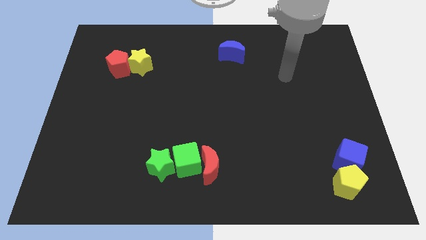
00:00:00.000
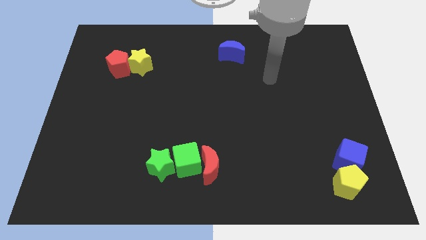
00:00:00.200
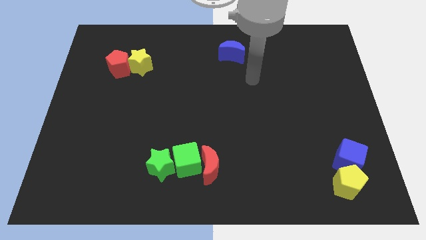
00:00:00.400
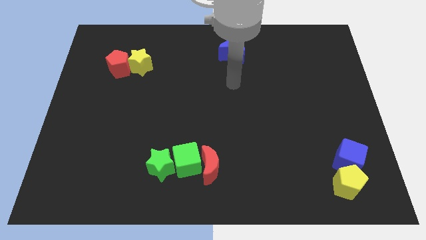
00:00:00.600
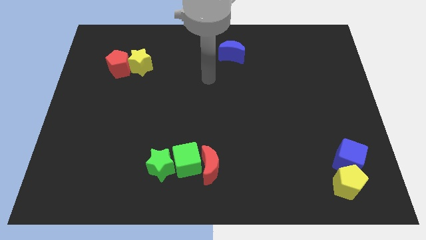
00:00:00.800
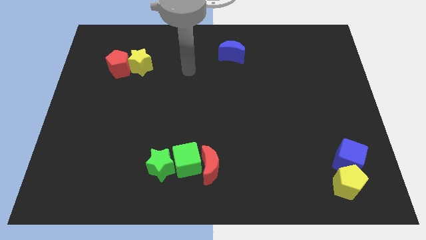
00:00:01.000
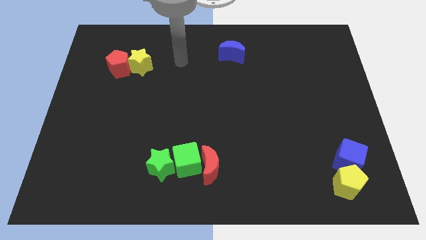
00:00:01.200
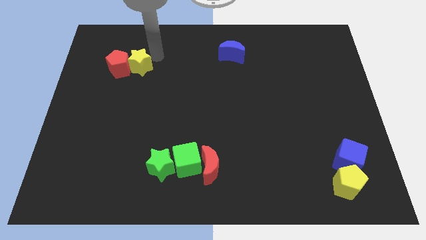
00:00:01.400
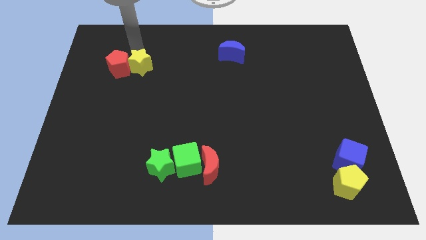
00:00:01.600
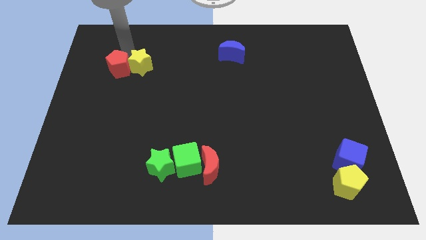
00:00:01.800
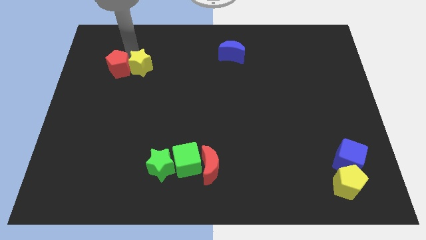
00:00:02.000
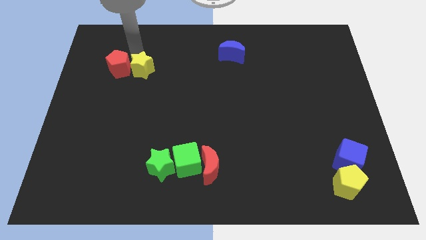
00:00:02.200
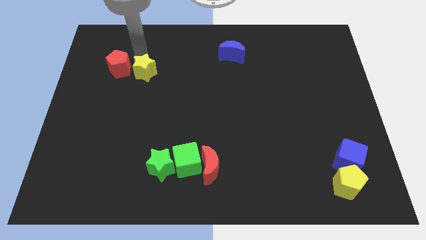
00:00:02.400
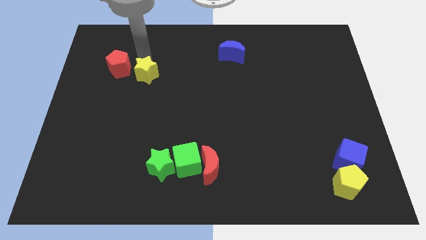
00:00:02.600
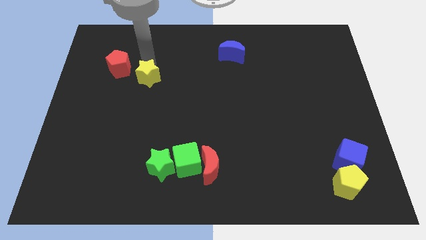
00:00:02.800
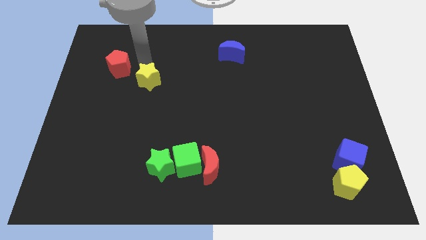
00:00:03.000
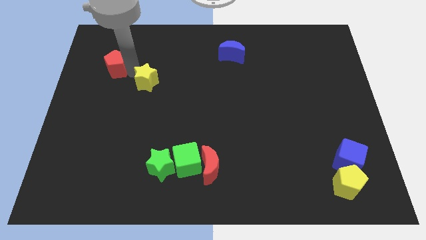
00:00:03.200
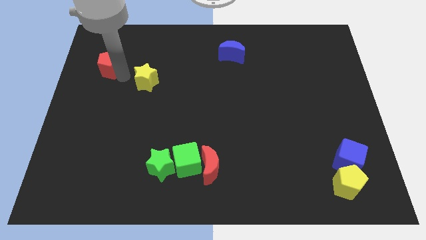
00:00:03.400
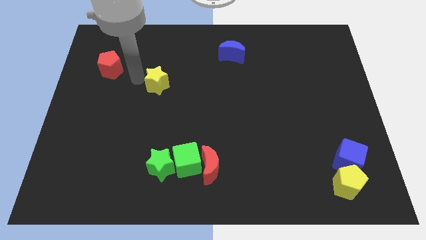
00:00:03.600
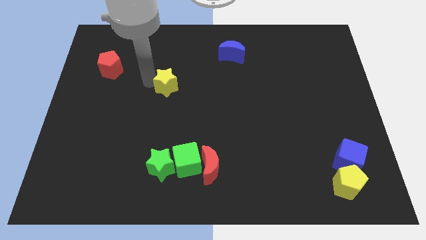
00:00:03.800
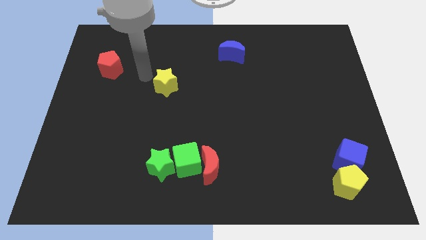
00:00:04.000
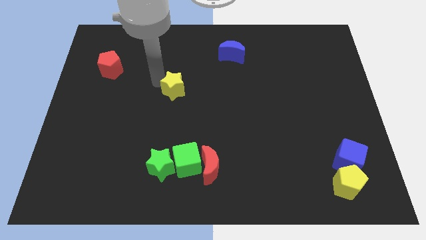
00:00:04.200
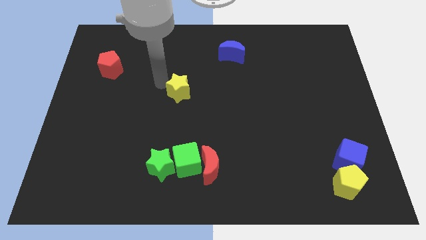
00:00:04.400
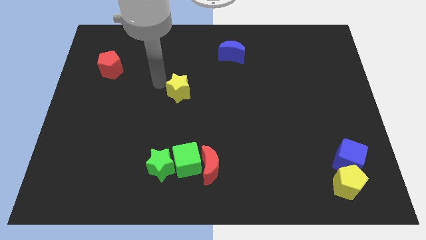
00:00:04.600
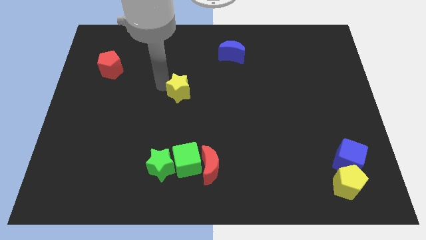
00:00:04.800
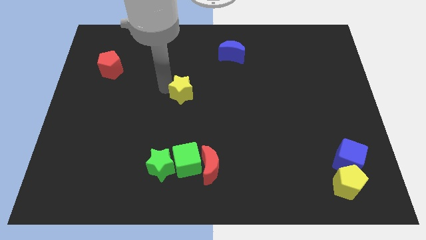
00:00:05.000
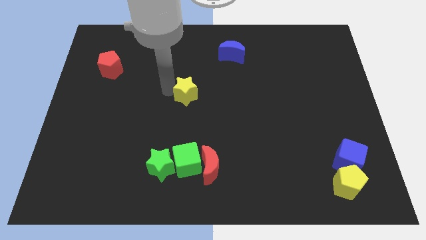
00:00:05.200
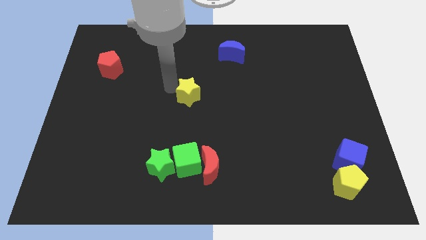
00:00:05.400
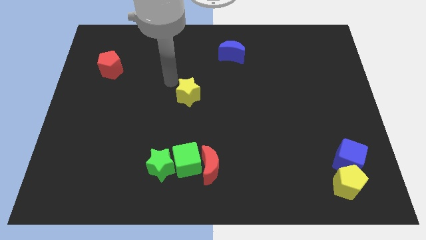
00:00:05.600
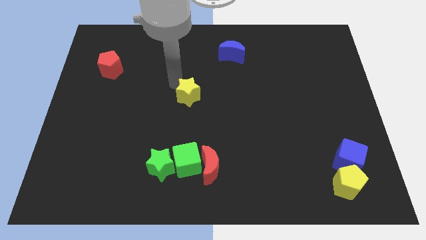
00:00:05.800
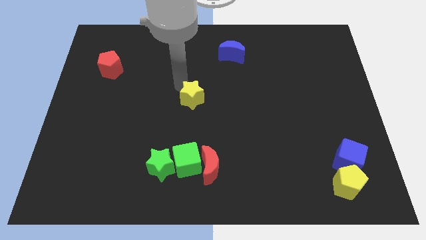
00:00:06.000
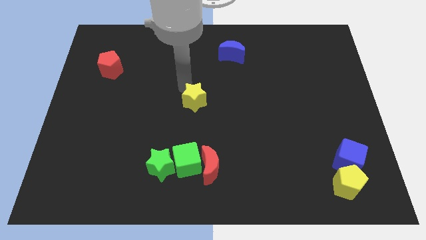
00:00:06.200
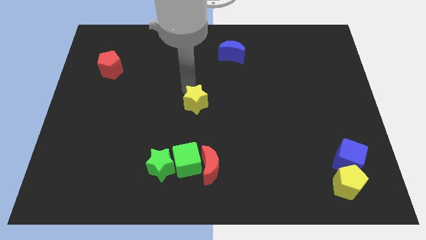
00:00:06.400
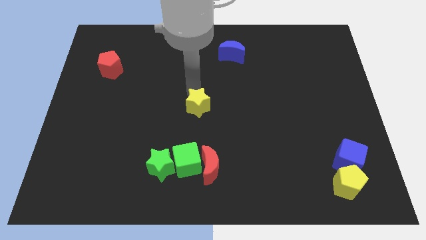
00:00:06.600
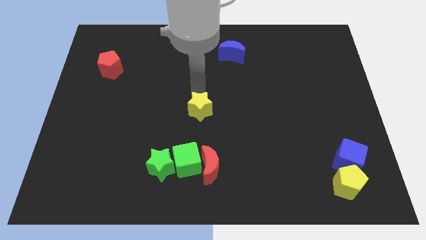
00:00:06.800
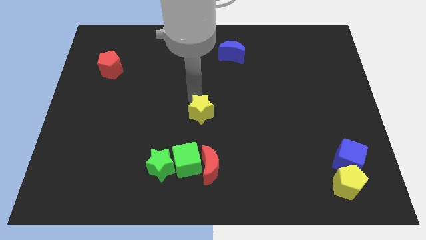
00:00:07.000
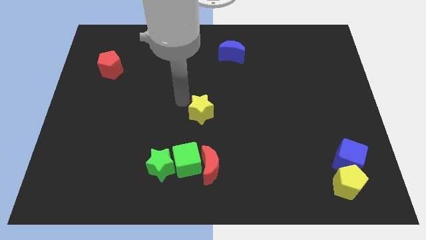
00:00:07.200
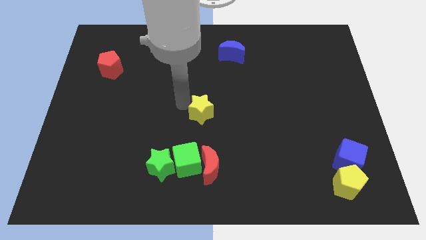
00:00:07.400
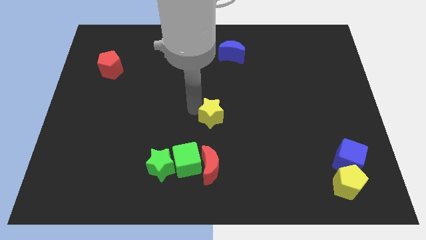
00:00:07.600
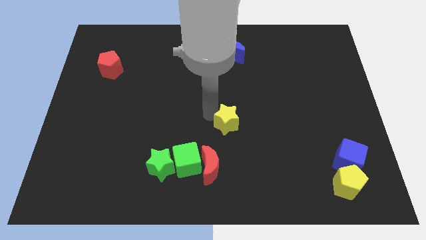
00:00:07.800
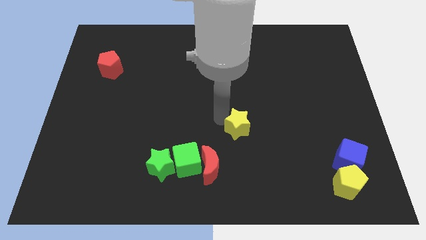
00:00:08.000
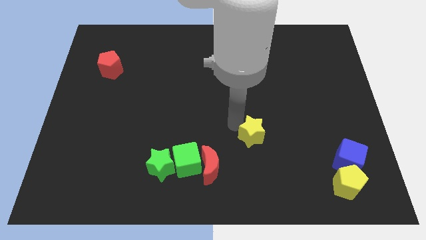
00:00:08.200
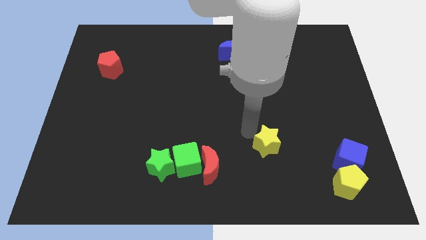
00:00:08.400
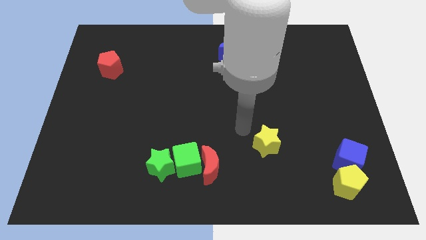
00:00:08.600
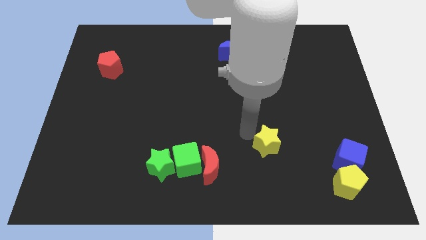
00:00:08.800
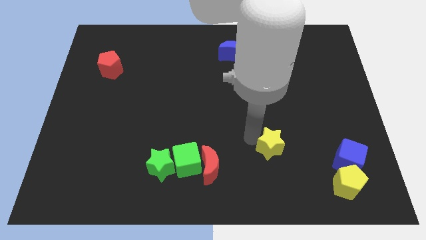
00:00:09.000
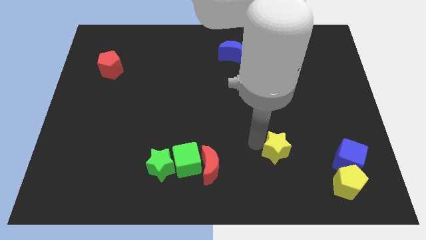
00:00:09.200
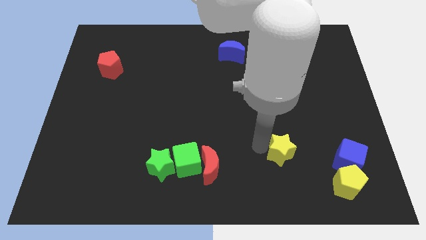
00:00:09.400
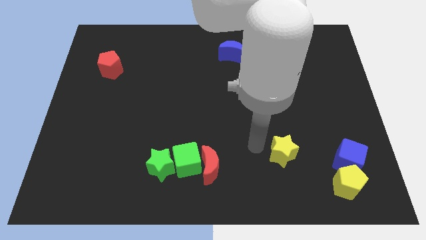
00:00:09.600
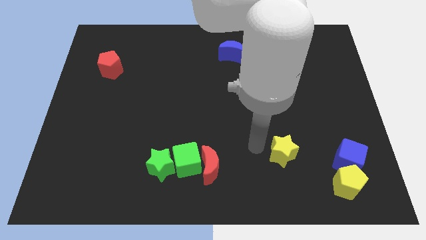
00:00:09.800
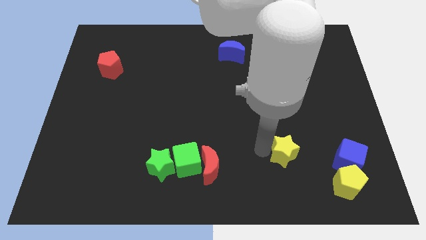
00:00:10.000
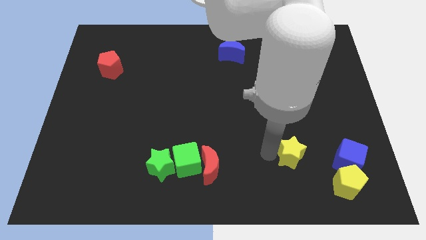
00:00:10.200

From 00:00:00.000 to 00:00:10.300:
push the yellow star diagonally up and to the left of the yellow pentagon

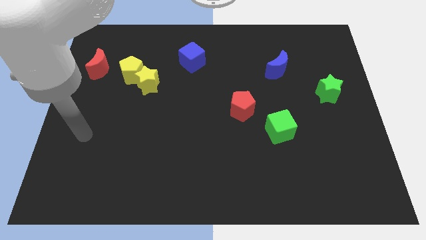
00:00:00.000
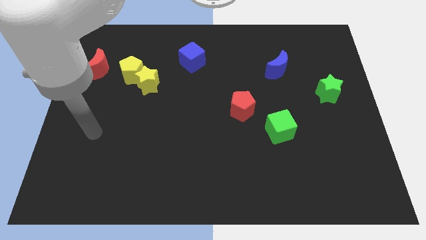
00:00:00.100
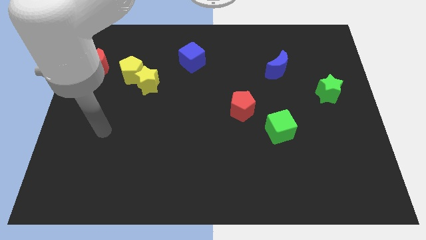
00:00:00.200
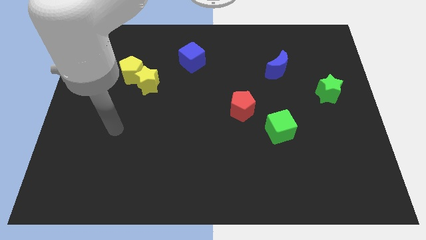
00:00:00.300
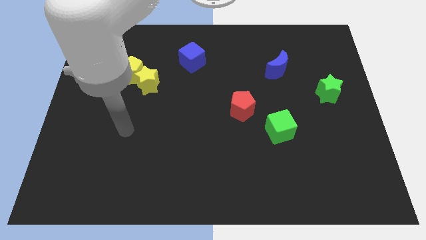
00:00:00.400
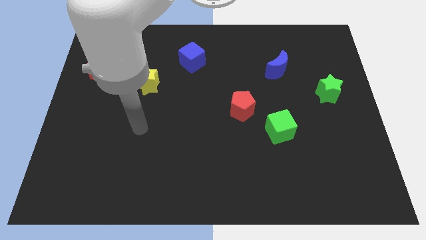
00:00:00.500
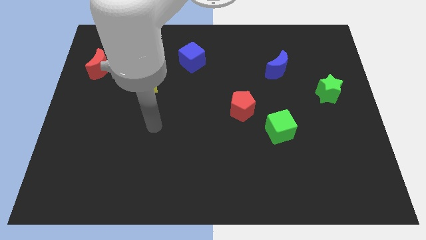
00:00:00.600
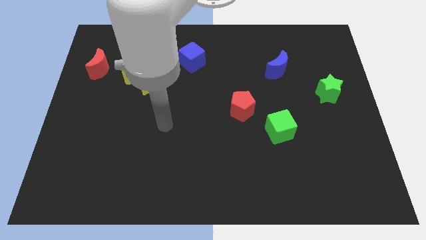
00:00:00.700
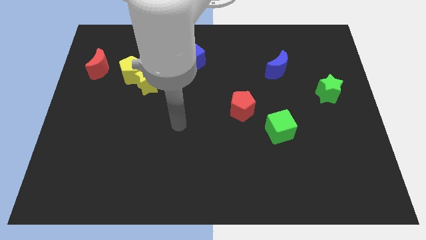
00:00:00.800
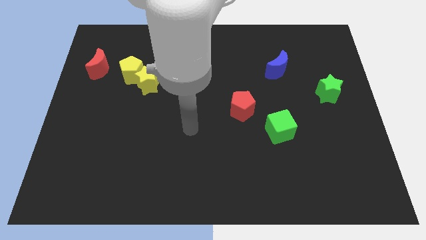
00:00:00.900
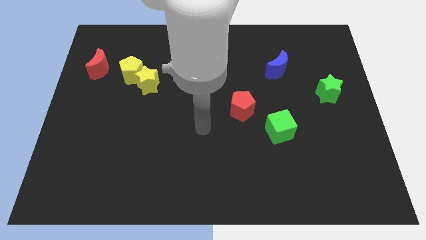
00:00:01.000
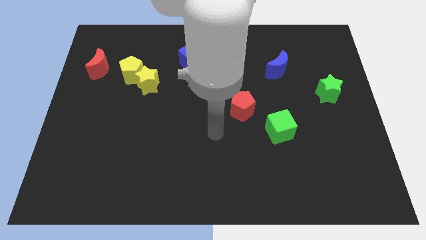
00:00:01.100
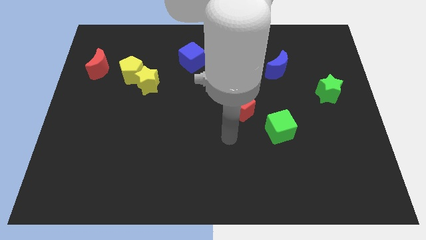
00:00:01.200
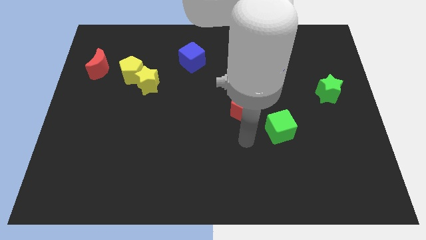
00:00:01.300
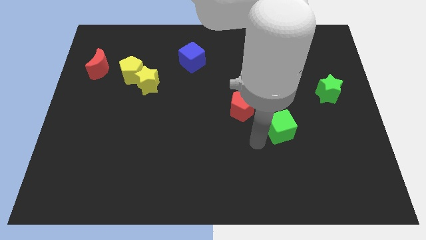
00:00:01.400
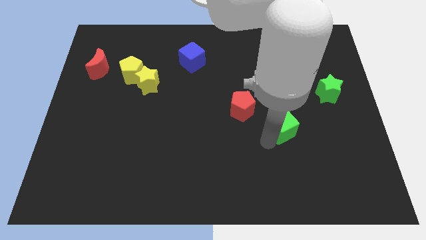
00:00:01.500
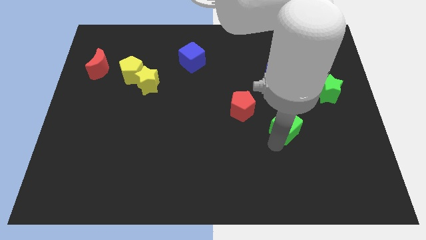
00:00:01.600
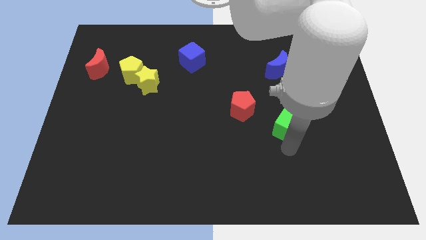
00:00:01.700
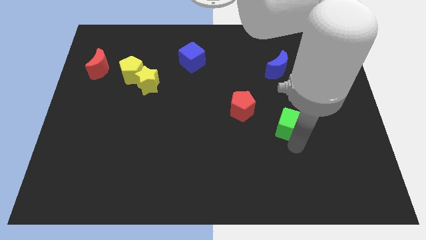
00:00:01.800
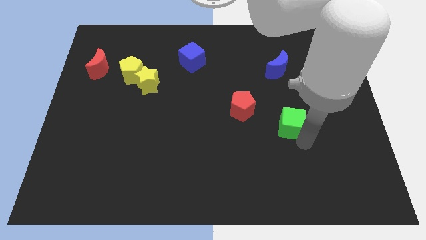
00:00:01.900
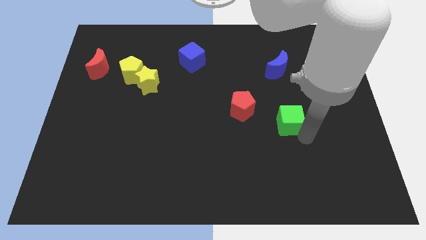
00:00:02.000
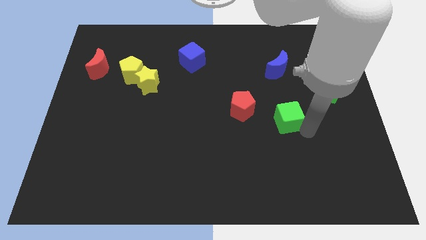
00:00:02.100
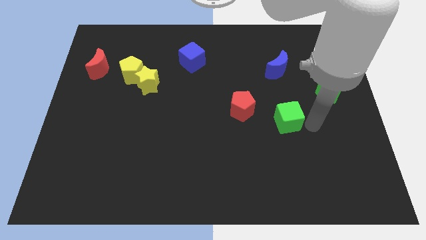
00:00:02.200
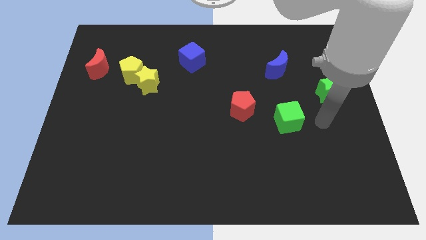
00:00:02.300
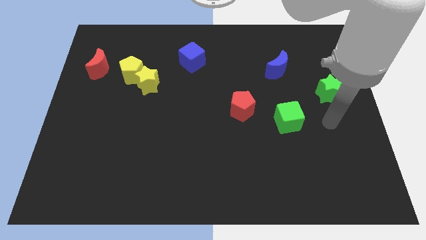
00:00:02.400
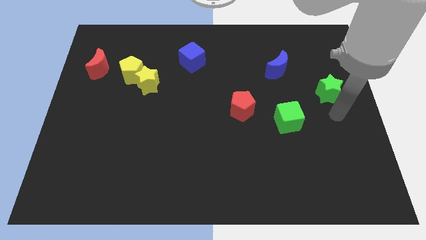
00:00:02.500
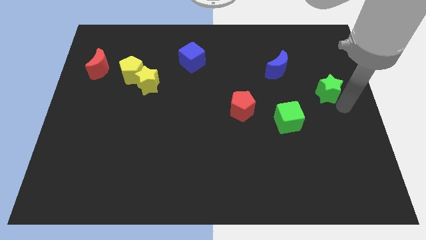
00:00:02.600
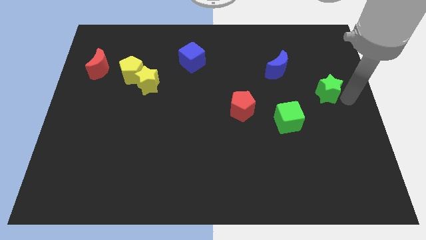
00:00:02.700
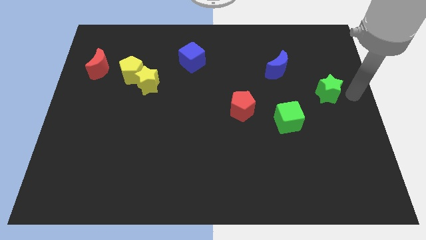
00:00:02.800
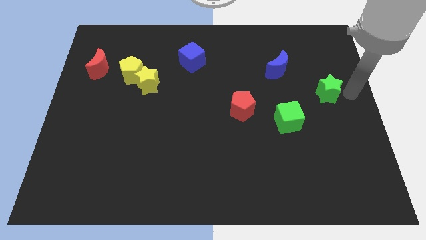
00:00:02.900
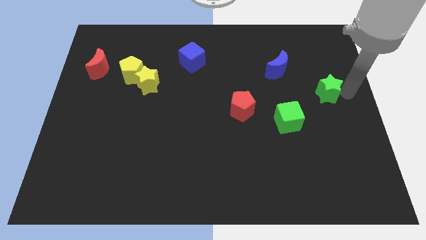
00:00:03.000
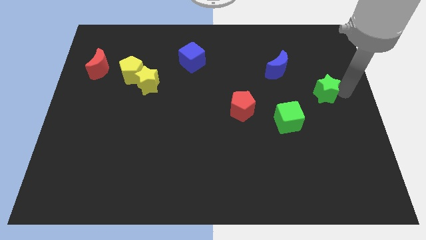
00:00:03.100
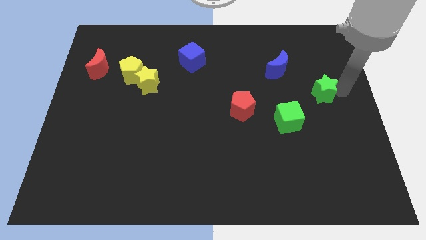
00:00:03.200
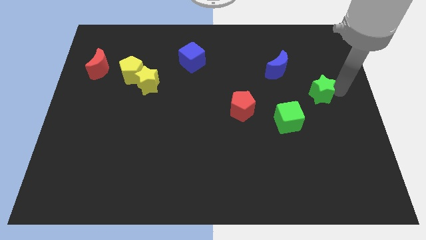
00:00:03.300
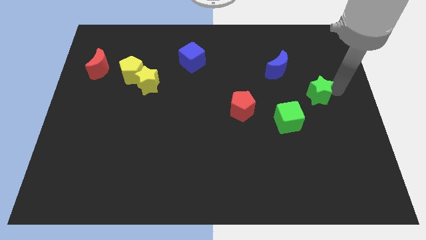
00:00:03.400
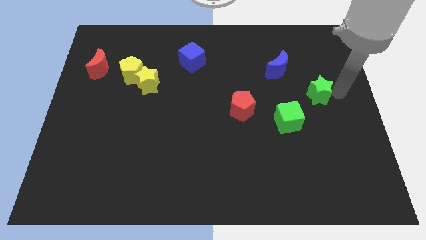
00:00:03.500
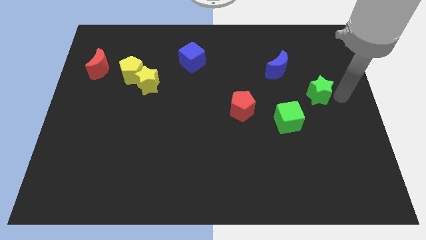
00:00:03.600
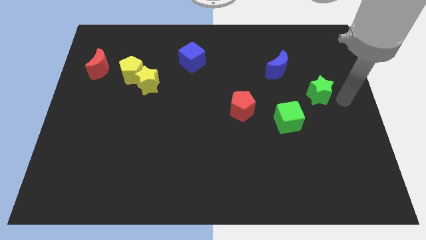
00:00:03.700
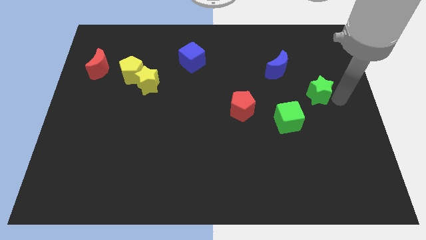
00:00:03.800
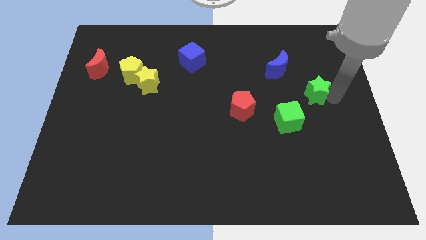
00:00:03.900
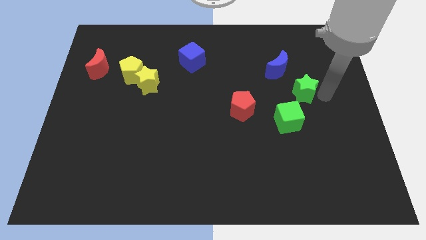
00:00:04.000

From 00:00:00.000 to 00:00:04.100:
move the green star to the top side of the green cube
